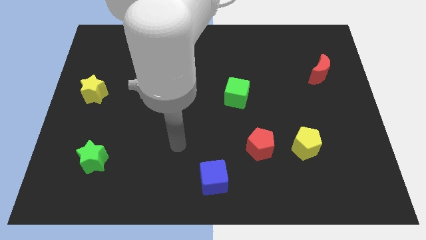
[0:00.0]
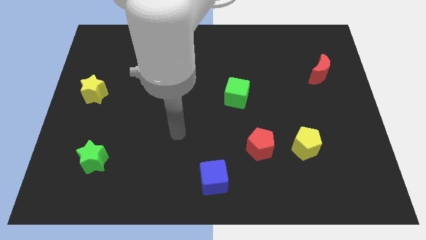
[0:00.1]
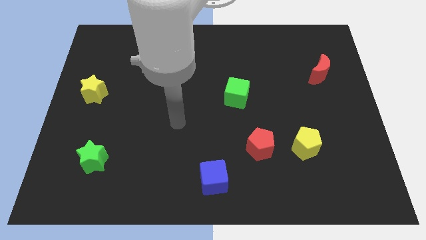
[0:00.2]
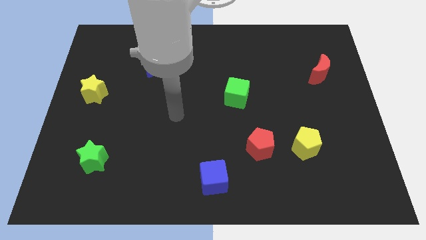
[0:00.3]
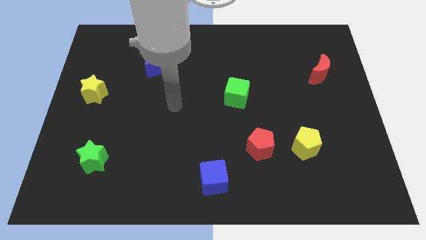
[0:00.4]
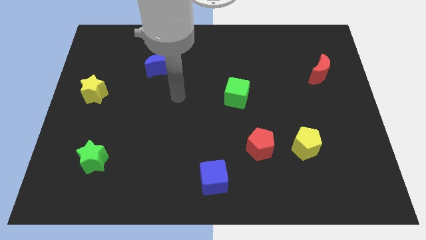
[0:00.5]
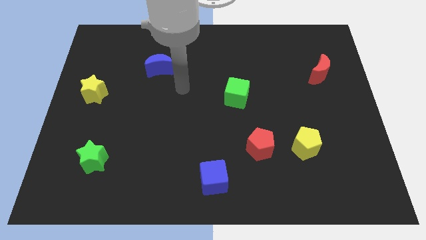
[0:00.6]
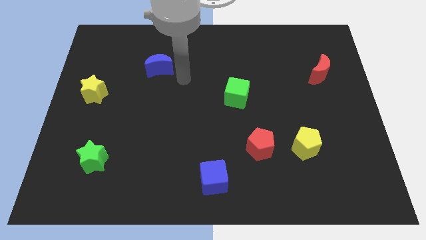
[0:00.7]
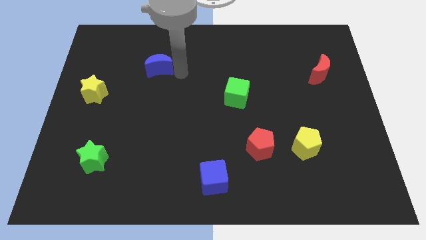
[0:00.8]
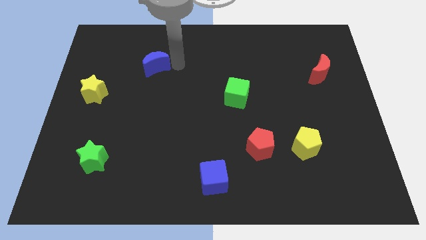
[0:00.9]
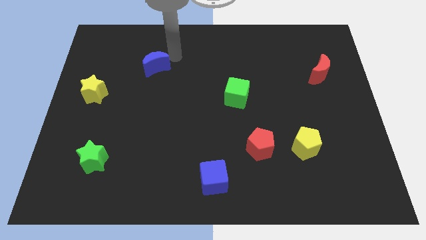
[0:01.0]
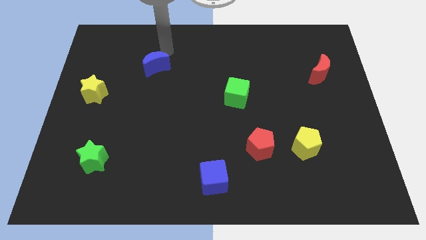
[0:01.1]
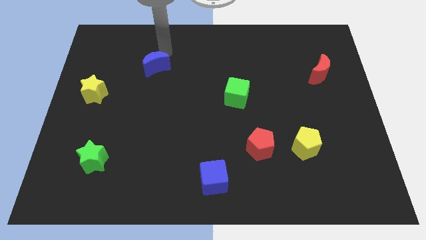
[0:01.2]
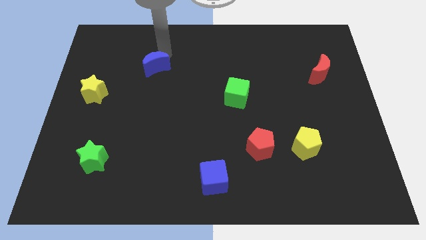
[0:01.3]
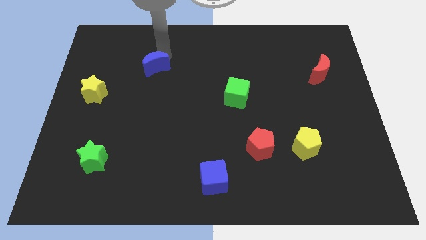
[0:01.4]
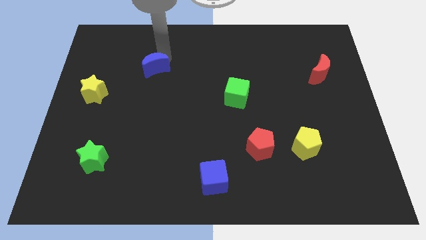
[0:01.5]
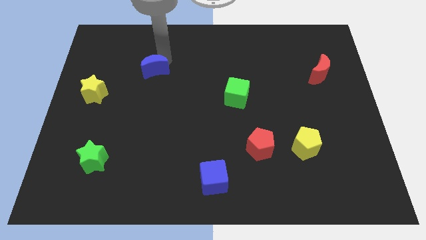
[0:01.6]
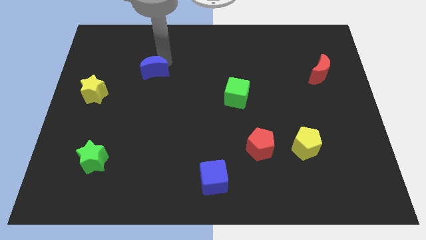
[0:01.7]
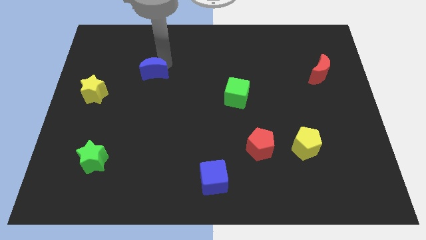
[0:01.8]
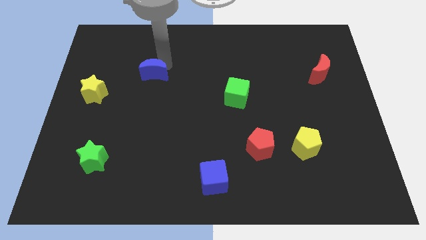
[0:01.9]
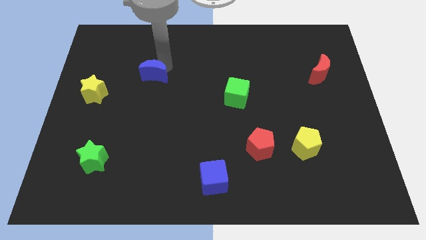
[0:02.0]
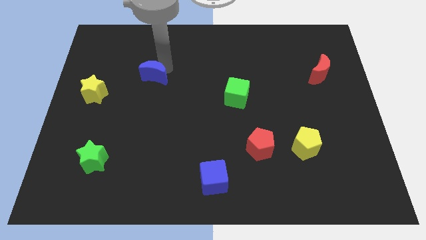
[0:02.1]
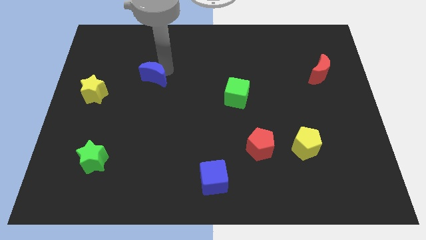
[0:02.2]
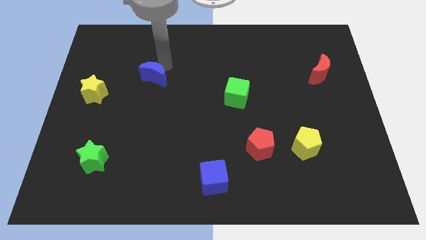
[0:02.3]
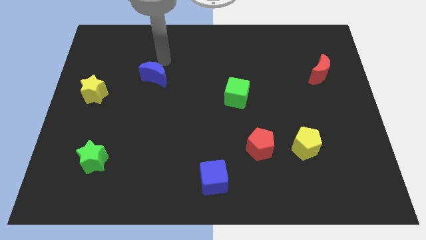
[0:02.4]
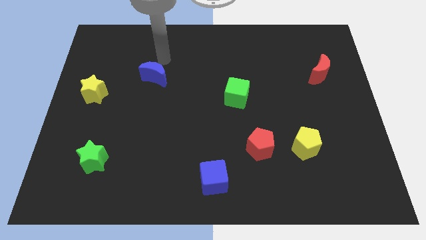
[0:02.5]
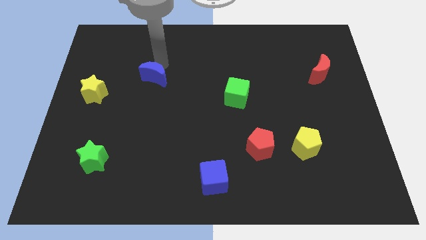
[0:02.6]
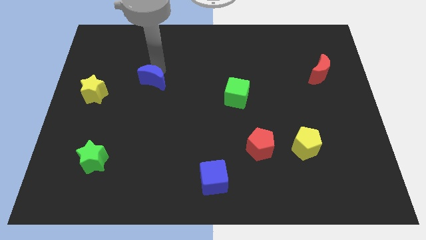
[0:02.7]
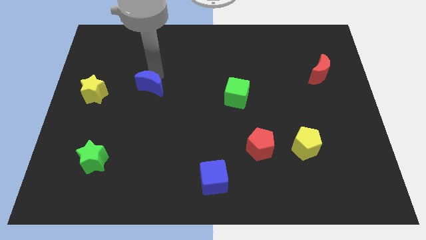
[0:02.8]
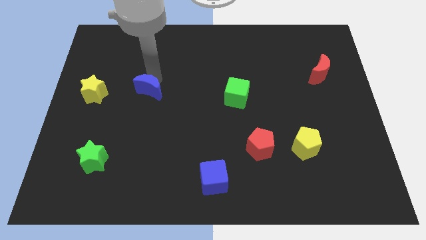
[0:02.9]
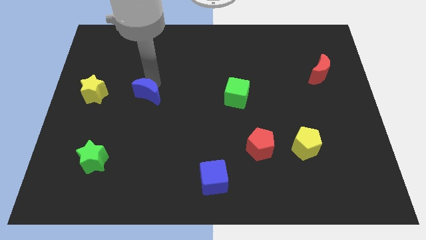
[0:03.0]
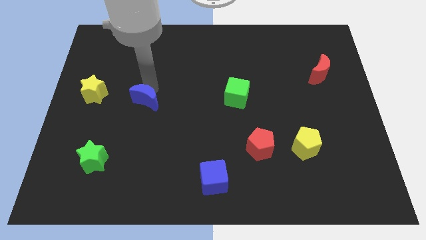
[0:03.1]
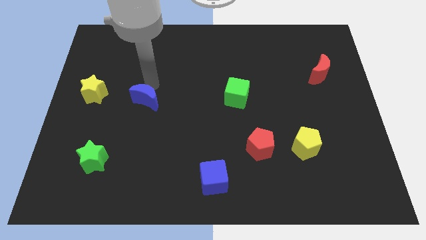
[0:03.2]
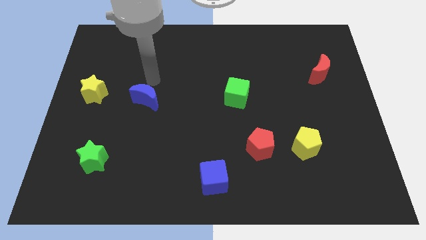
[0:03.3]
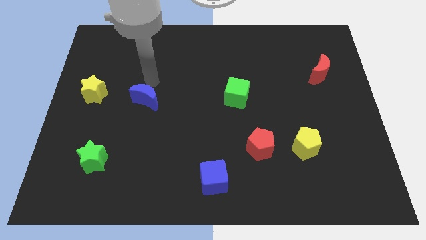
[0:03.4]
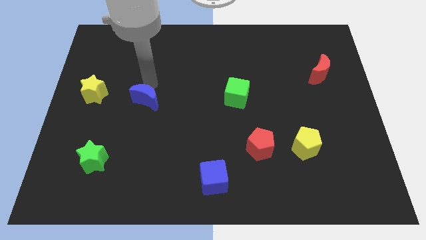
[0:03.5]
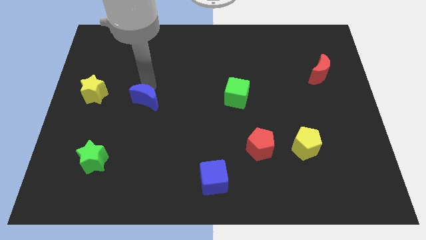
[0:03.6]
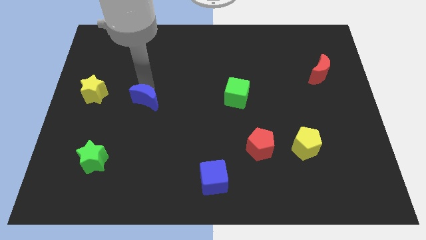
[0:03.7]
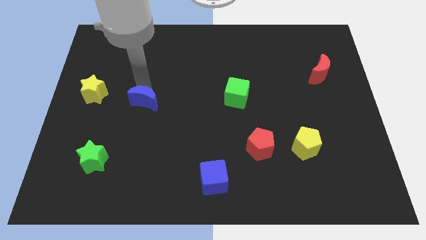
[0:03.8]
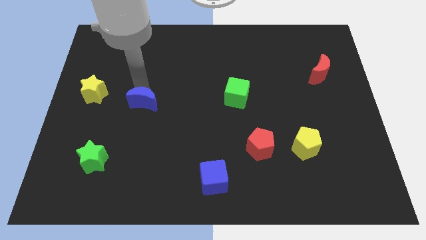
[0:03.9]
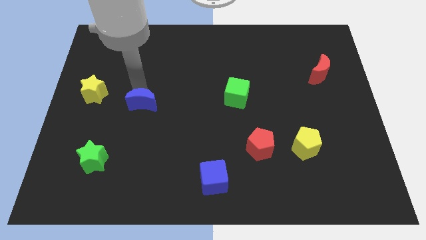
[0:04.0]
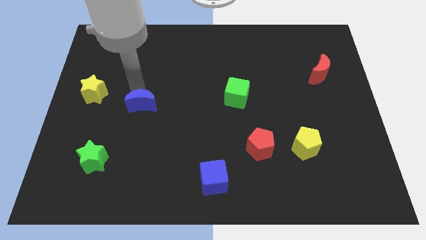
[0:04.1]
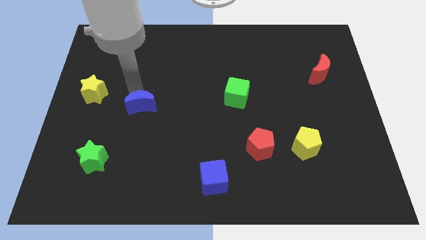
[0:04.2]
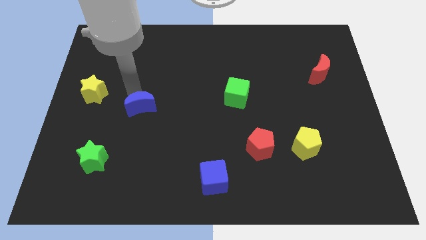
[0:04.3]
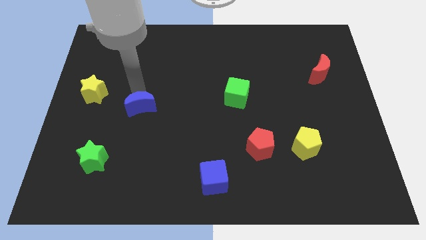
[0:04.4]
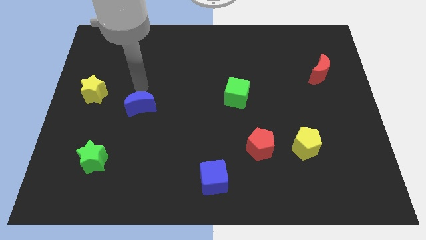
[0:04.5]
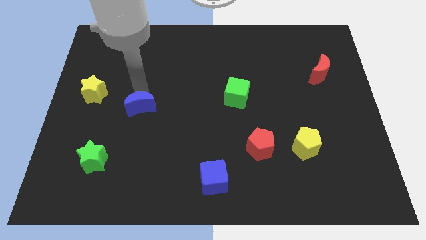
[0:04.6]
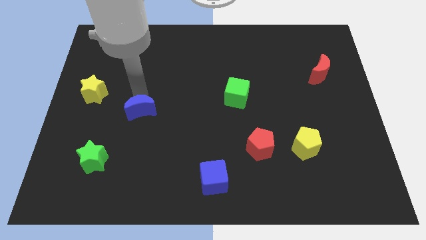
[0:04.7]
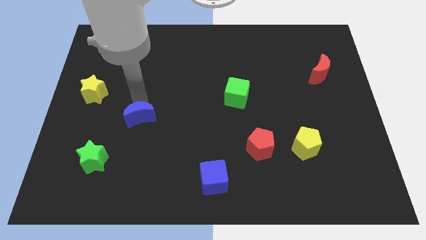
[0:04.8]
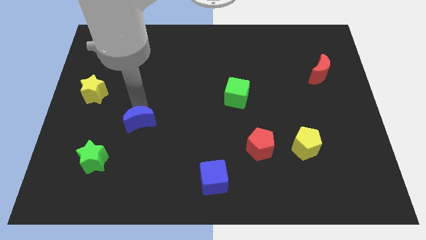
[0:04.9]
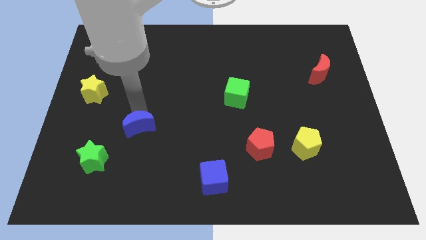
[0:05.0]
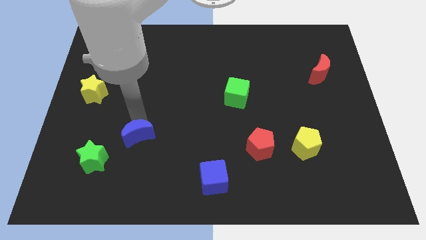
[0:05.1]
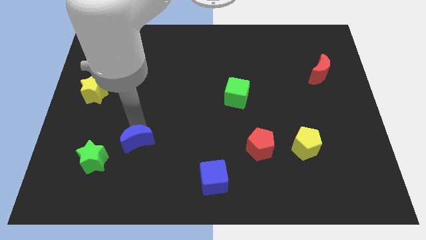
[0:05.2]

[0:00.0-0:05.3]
put the blue moon just right of the green star

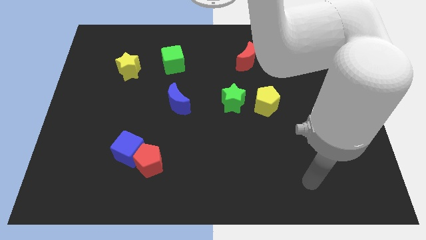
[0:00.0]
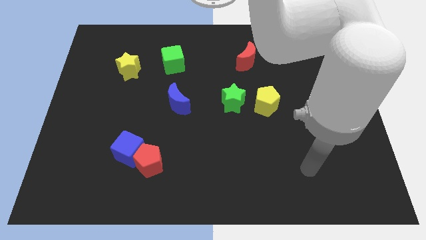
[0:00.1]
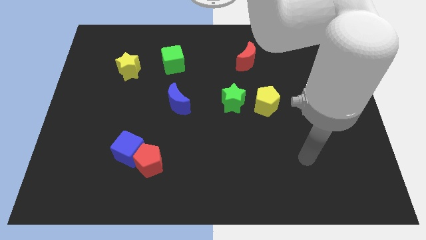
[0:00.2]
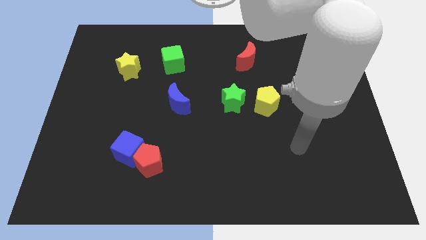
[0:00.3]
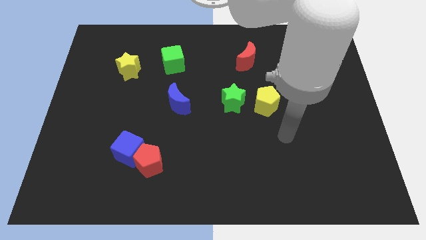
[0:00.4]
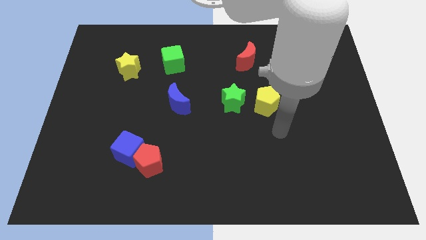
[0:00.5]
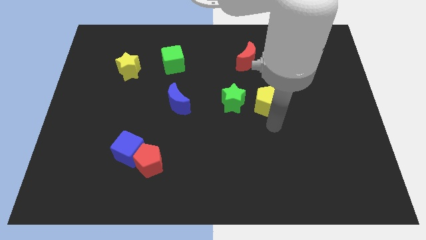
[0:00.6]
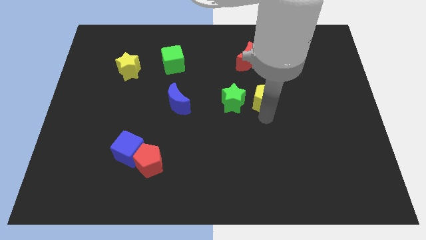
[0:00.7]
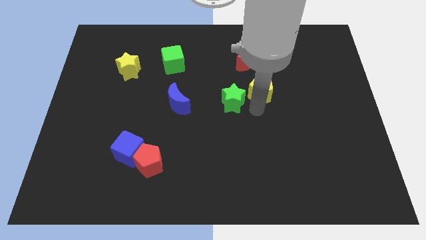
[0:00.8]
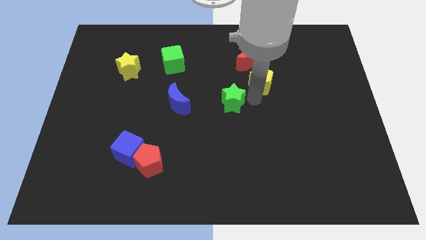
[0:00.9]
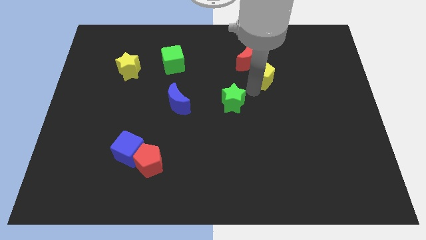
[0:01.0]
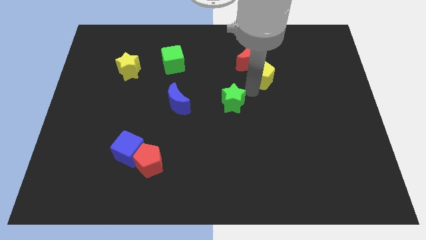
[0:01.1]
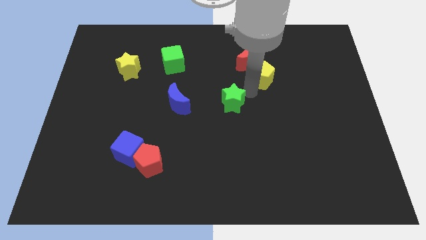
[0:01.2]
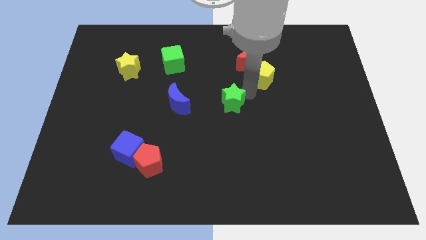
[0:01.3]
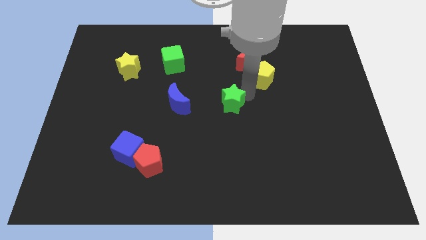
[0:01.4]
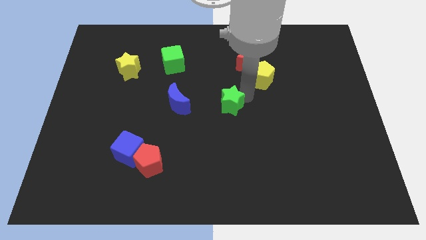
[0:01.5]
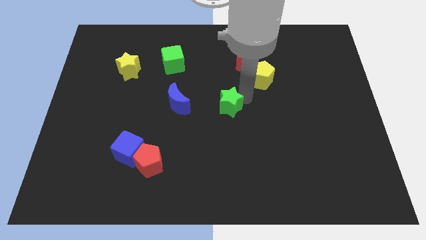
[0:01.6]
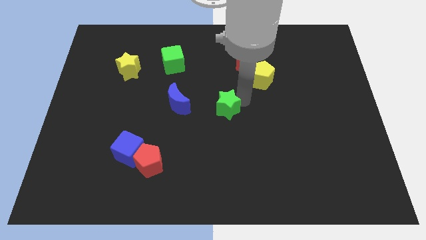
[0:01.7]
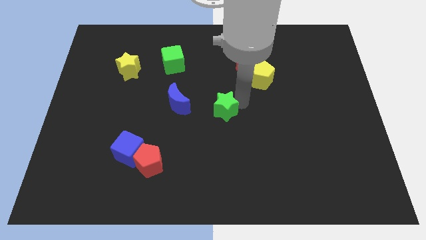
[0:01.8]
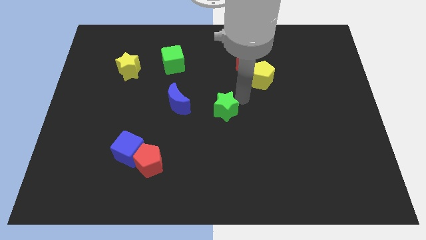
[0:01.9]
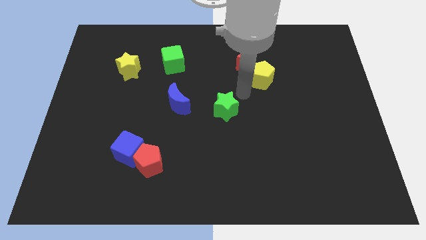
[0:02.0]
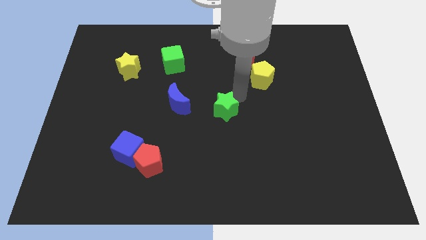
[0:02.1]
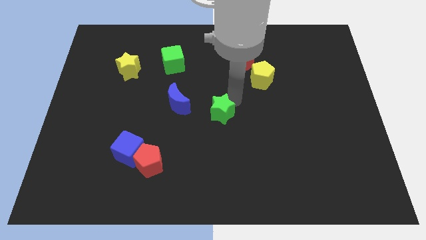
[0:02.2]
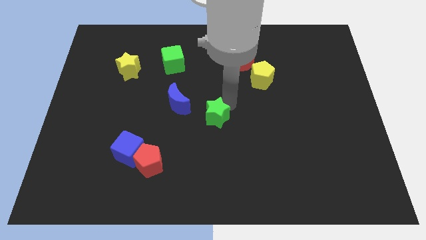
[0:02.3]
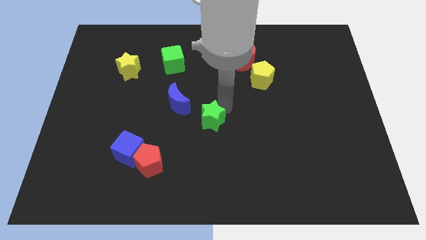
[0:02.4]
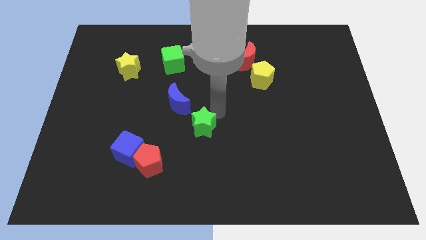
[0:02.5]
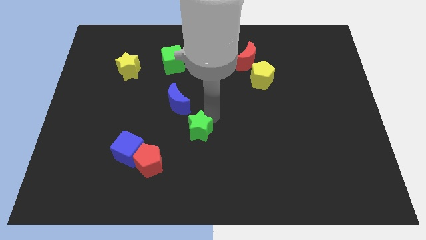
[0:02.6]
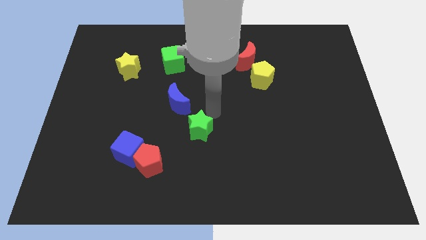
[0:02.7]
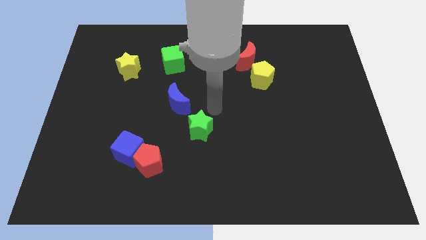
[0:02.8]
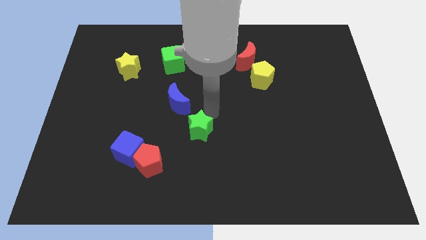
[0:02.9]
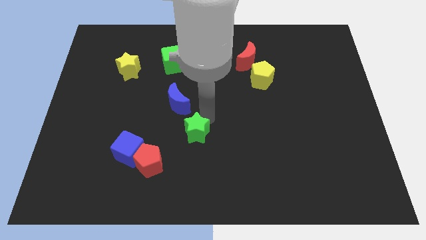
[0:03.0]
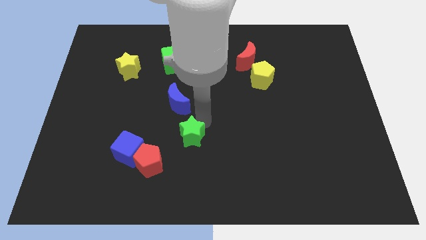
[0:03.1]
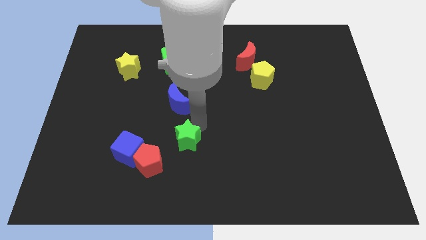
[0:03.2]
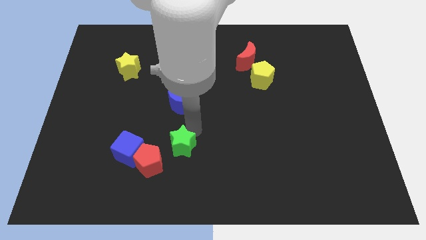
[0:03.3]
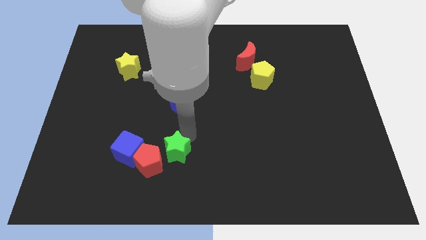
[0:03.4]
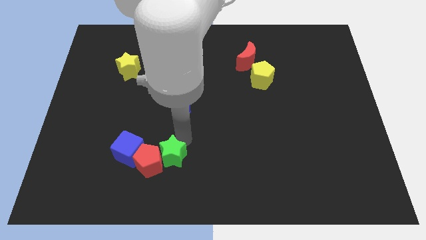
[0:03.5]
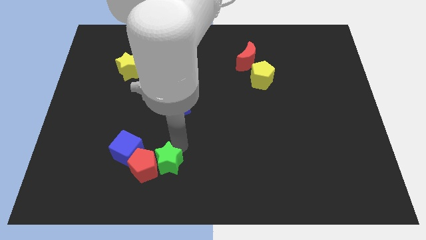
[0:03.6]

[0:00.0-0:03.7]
move the green star to the bottom right of the blue cube
